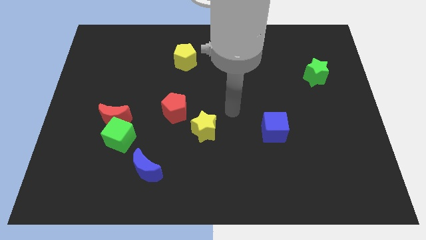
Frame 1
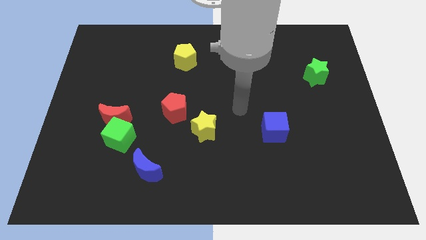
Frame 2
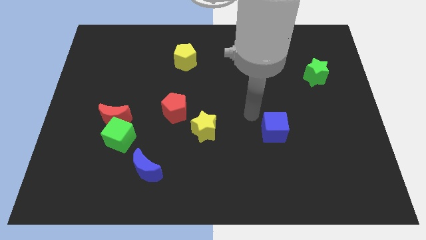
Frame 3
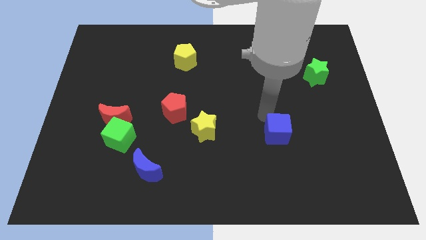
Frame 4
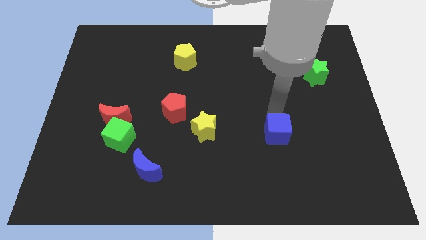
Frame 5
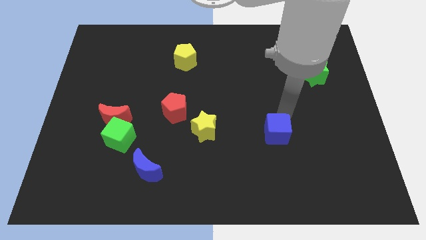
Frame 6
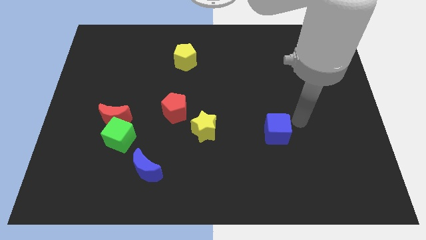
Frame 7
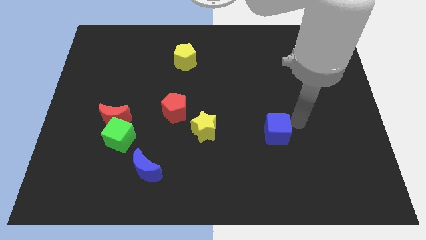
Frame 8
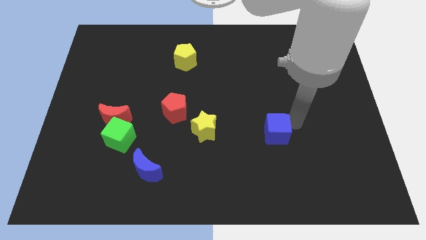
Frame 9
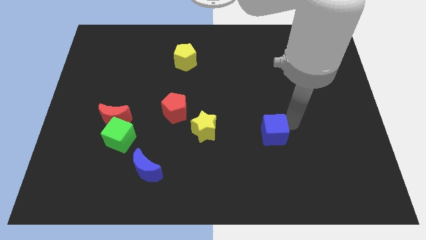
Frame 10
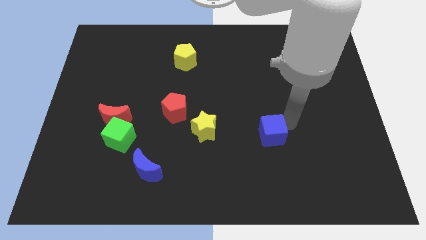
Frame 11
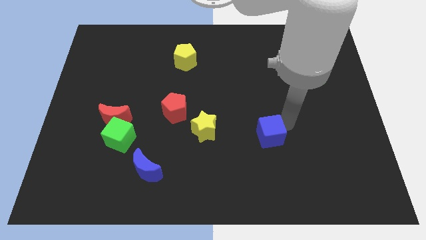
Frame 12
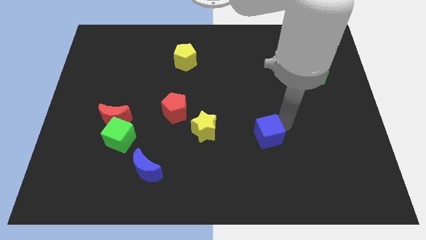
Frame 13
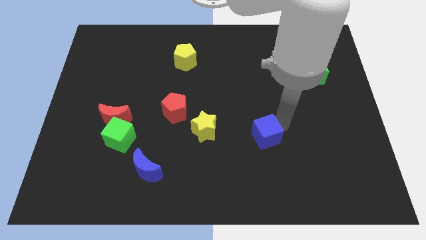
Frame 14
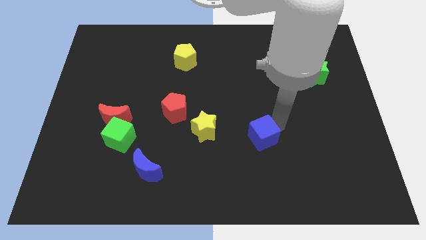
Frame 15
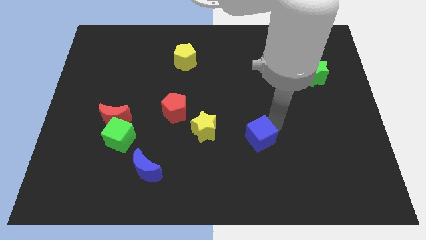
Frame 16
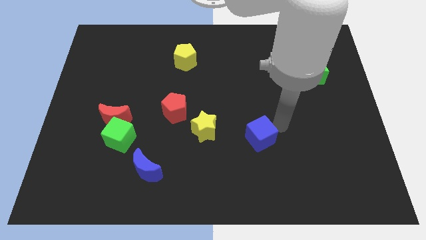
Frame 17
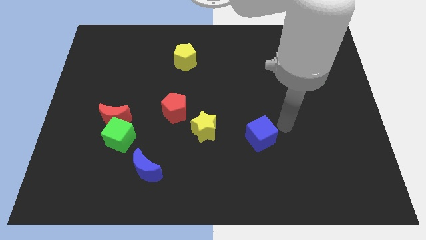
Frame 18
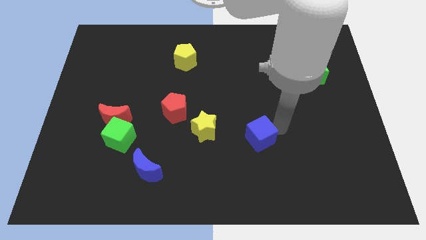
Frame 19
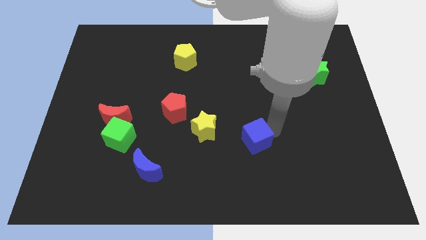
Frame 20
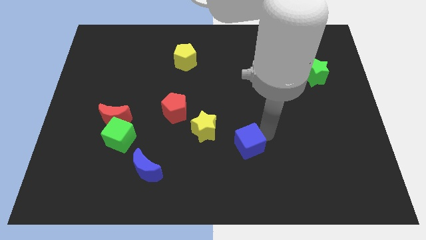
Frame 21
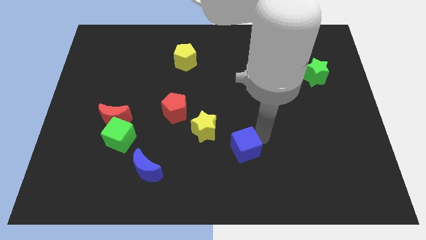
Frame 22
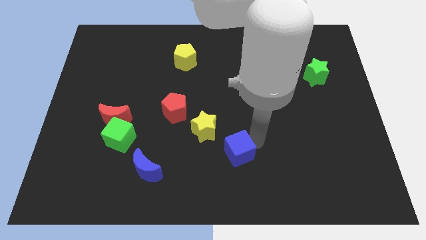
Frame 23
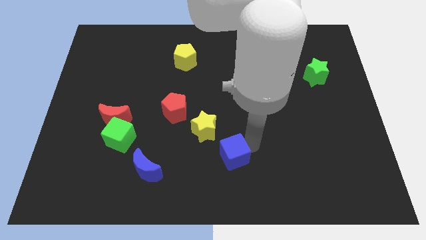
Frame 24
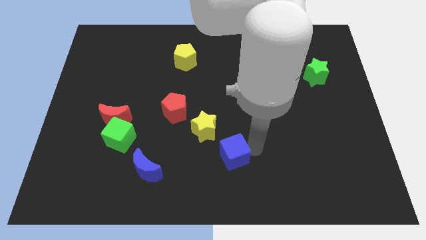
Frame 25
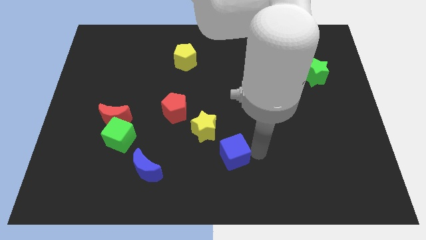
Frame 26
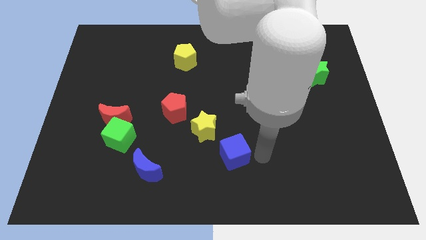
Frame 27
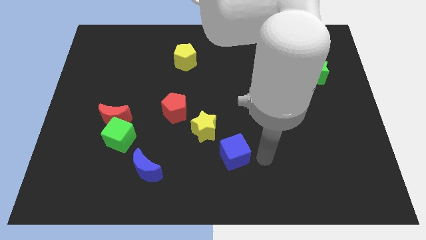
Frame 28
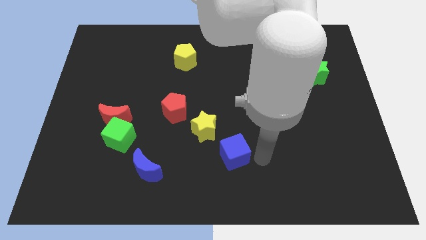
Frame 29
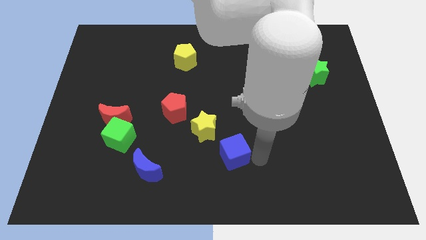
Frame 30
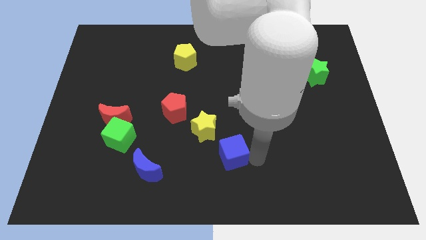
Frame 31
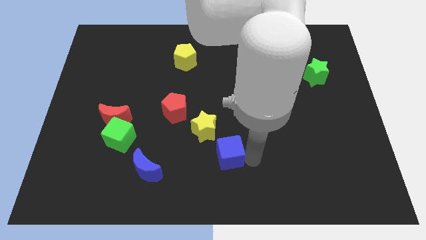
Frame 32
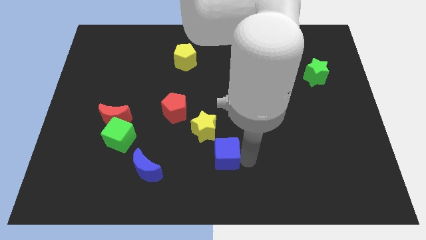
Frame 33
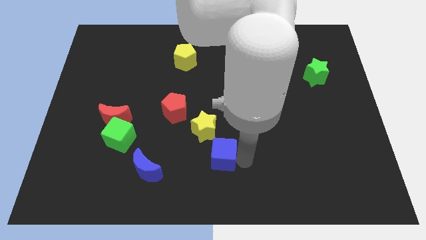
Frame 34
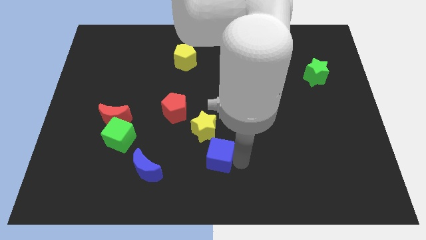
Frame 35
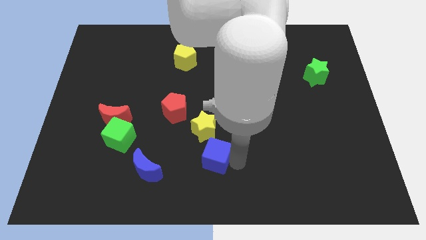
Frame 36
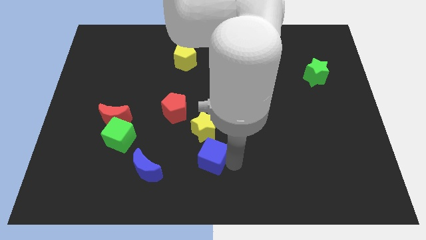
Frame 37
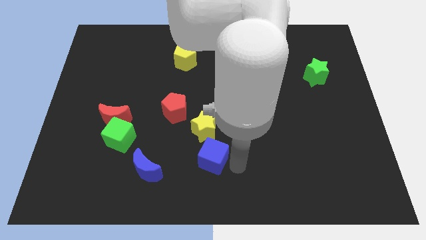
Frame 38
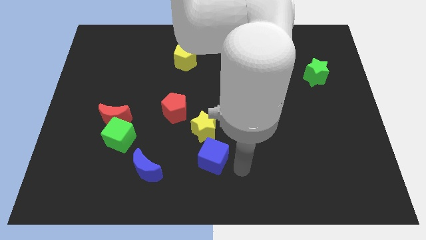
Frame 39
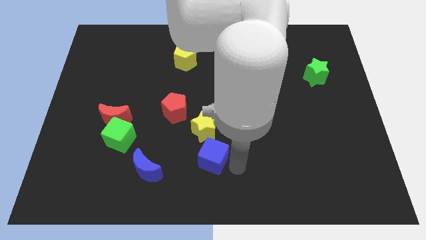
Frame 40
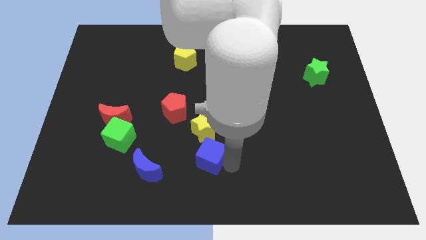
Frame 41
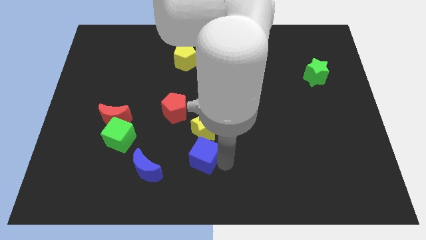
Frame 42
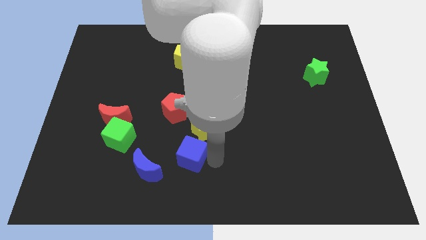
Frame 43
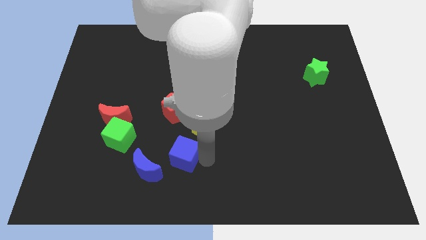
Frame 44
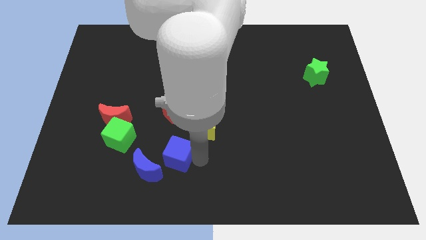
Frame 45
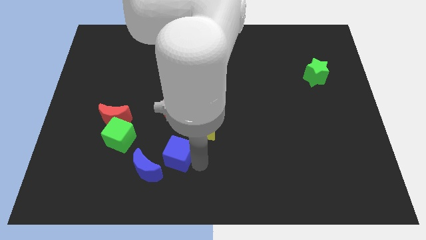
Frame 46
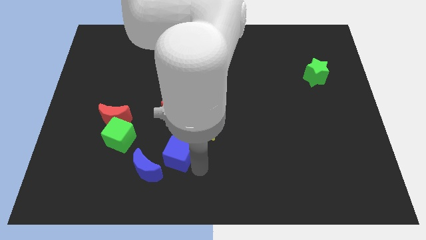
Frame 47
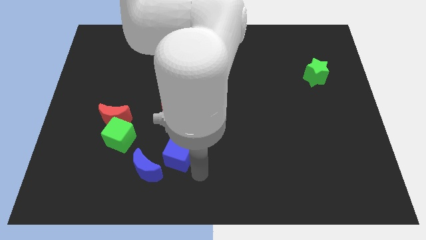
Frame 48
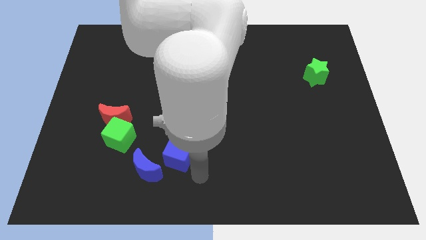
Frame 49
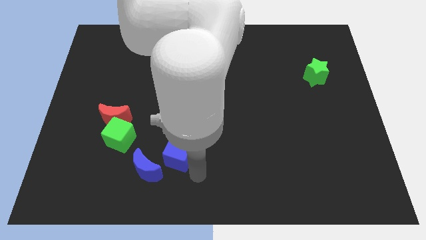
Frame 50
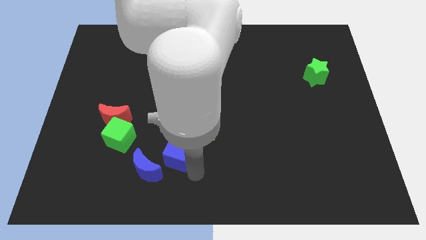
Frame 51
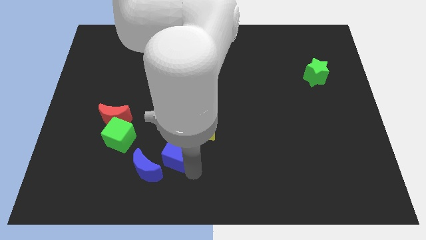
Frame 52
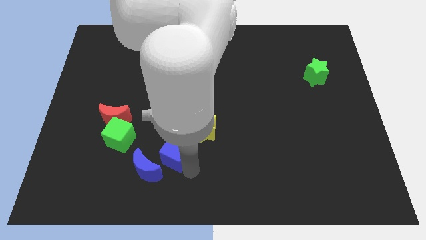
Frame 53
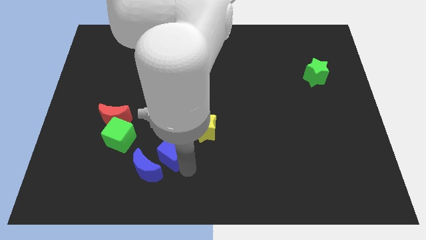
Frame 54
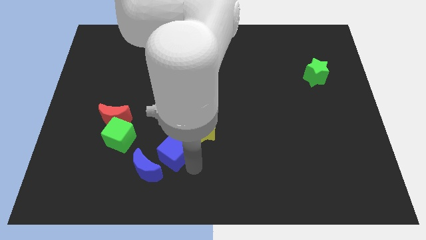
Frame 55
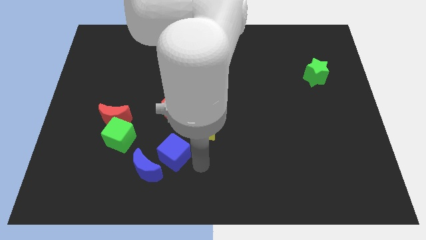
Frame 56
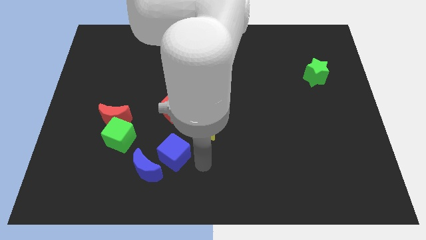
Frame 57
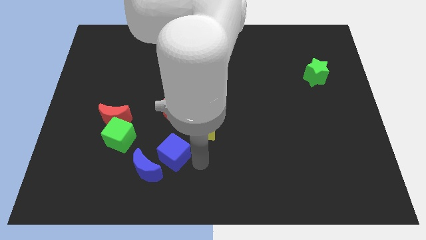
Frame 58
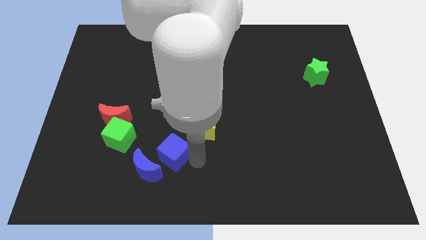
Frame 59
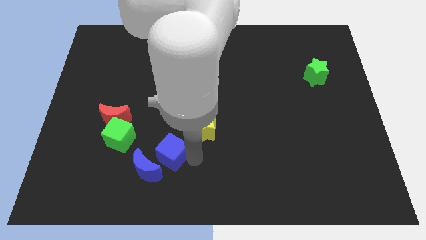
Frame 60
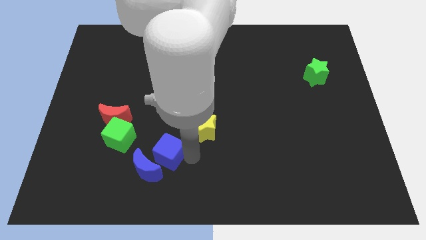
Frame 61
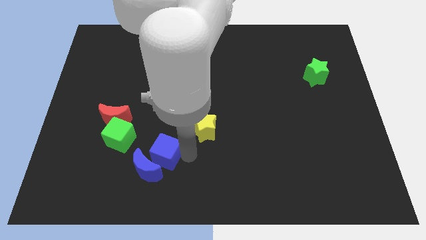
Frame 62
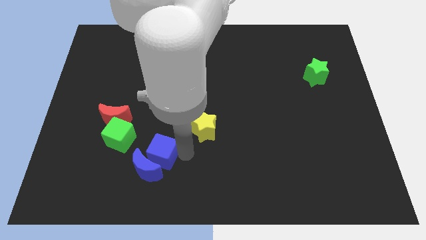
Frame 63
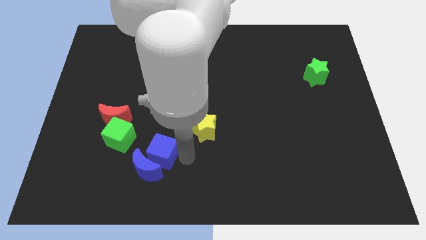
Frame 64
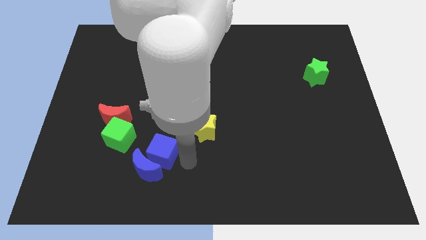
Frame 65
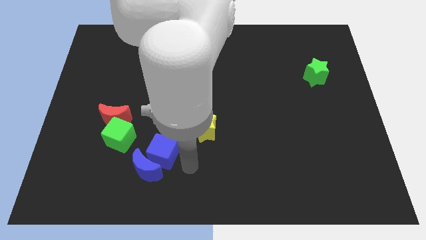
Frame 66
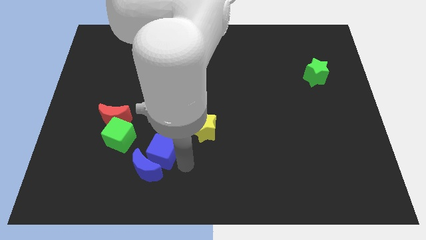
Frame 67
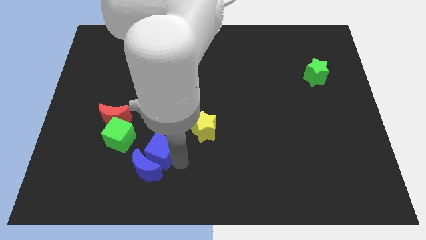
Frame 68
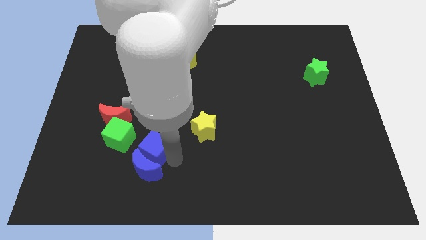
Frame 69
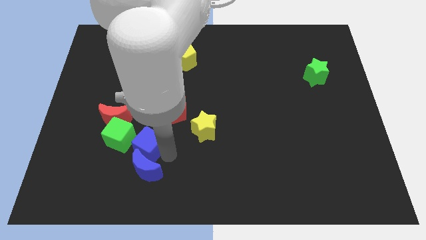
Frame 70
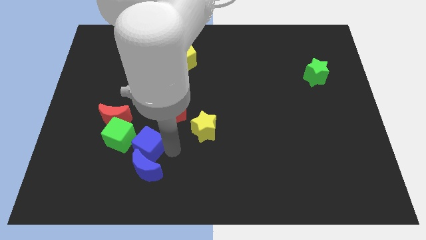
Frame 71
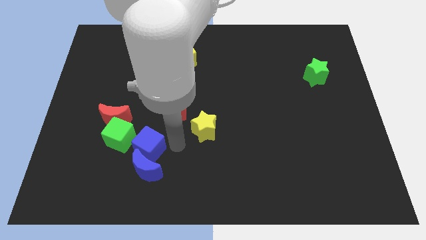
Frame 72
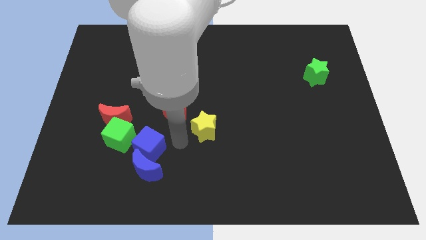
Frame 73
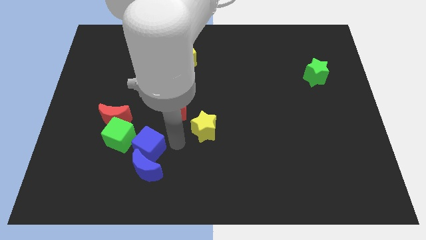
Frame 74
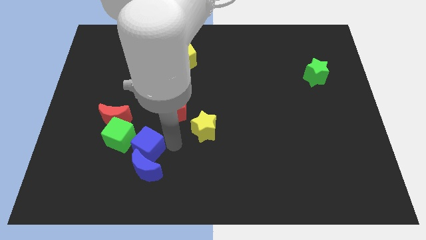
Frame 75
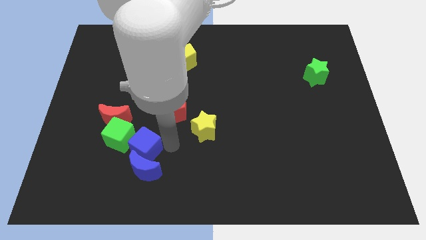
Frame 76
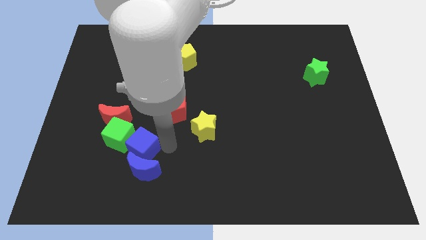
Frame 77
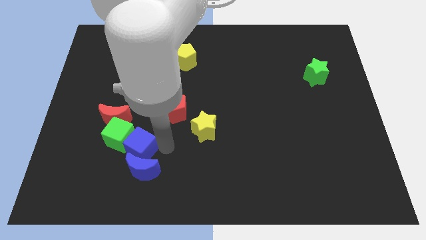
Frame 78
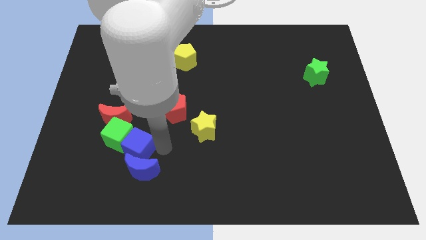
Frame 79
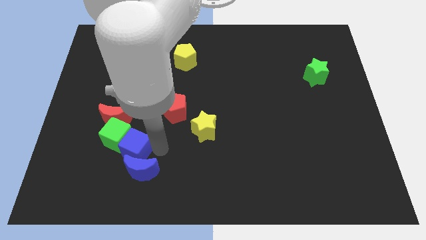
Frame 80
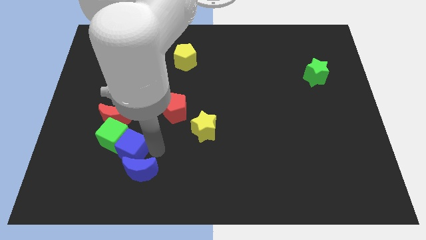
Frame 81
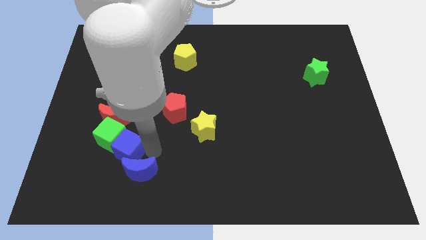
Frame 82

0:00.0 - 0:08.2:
push the blue cube to the bottom side of the red moon
